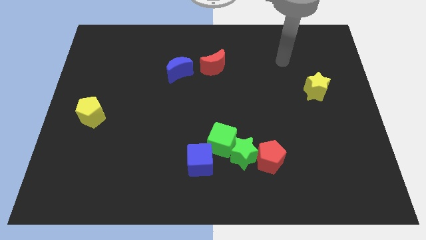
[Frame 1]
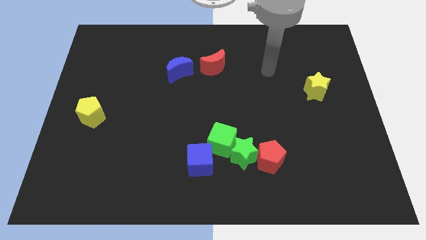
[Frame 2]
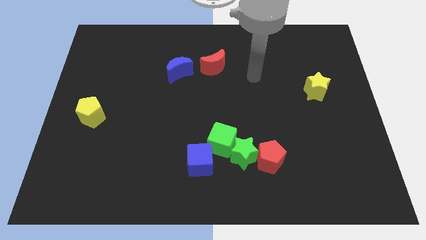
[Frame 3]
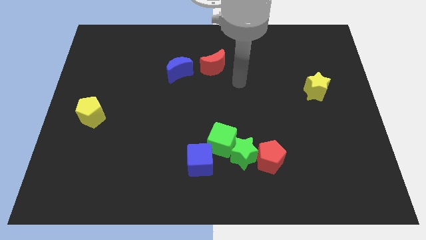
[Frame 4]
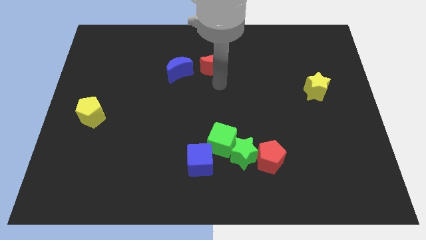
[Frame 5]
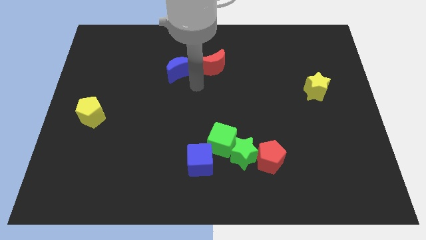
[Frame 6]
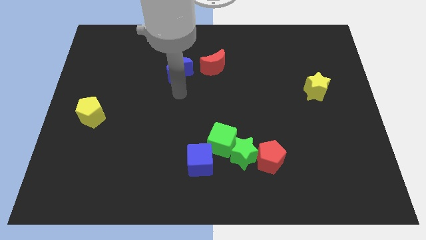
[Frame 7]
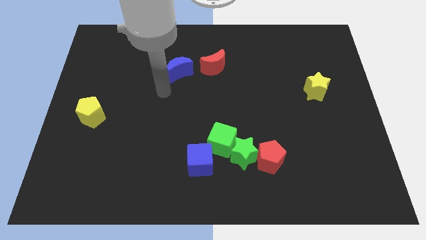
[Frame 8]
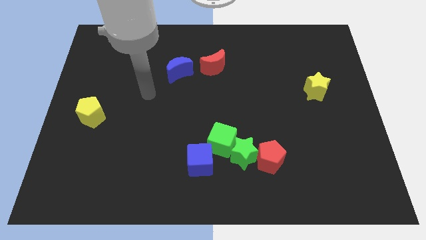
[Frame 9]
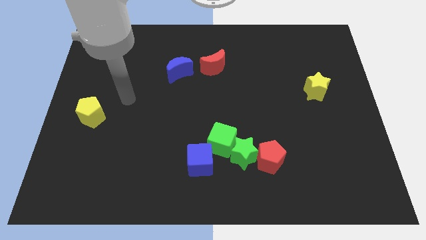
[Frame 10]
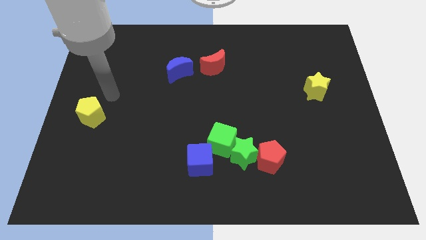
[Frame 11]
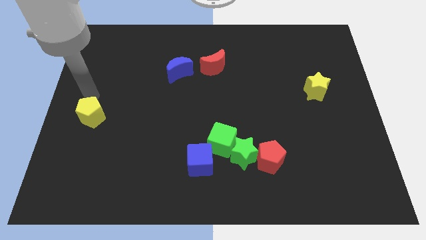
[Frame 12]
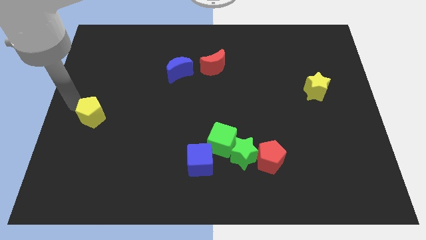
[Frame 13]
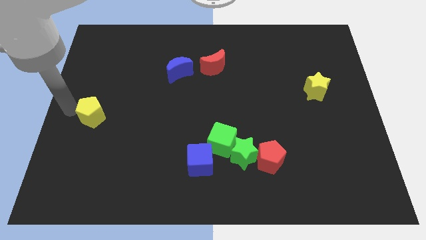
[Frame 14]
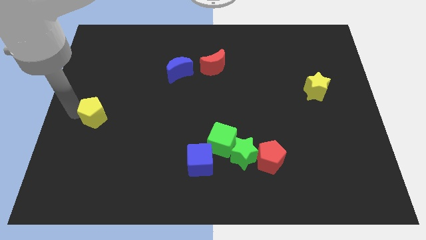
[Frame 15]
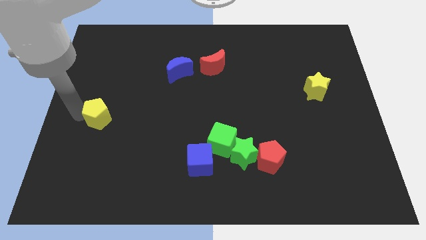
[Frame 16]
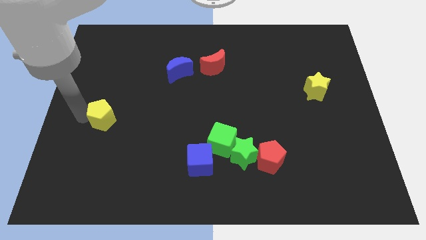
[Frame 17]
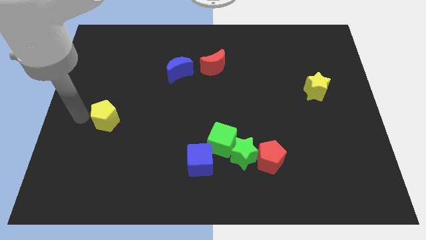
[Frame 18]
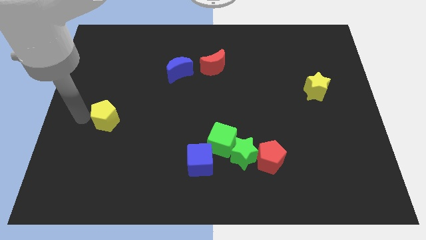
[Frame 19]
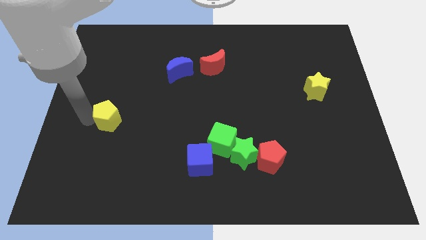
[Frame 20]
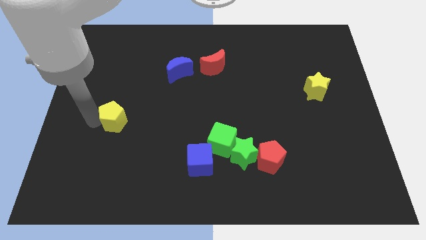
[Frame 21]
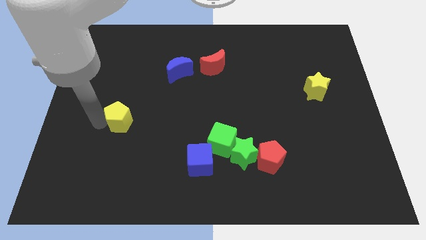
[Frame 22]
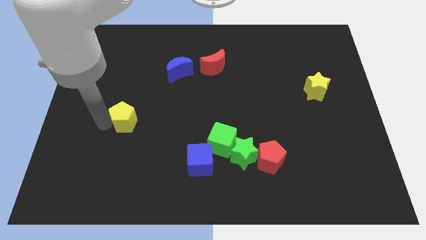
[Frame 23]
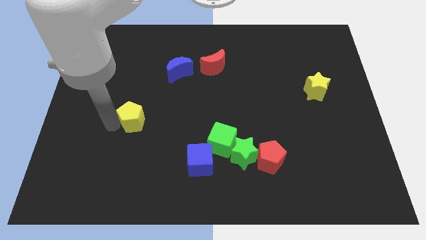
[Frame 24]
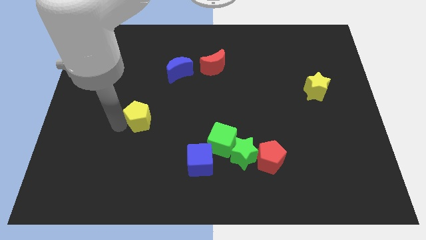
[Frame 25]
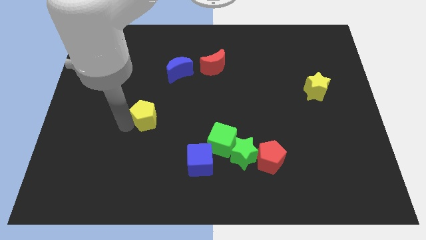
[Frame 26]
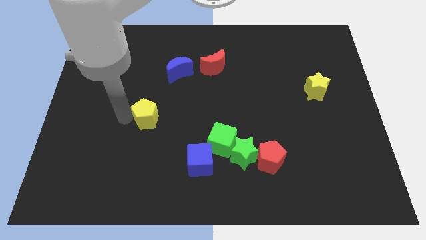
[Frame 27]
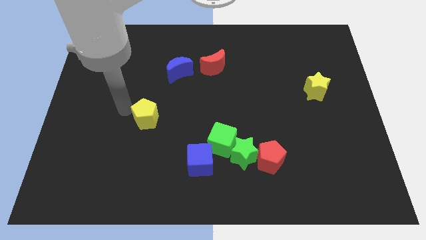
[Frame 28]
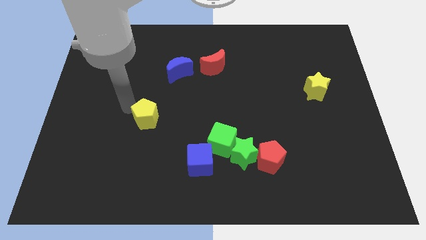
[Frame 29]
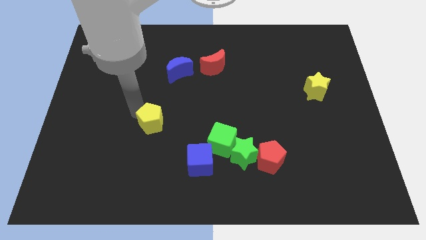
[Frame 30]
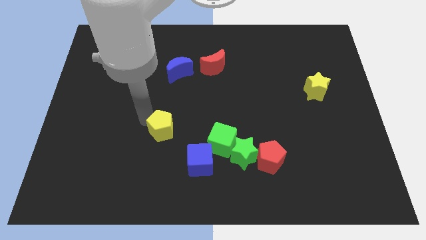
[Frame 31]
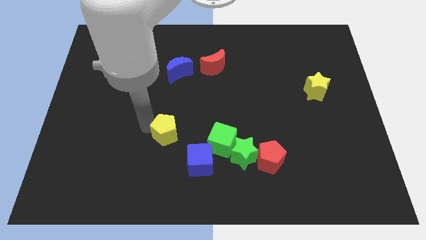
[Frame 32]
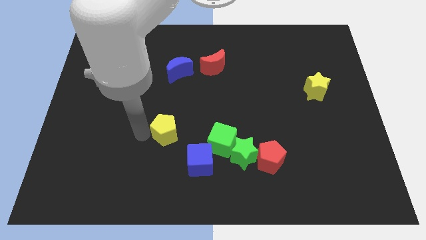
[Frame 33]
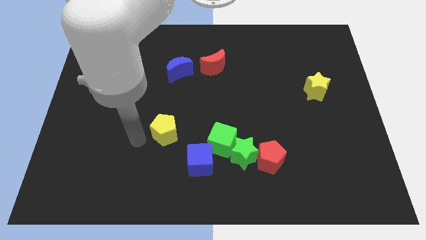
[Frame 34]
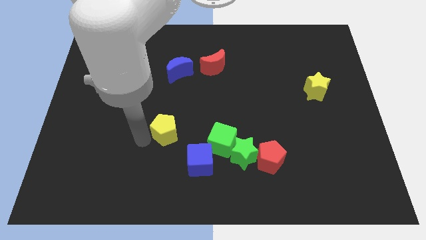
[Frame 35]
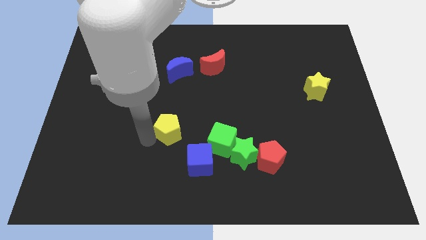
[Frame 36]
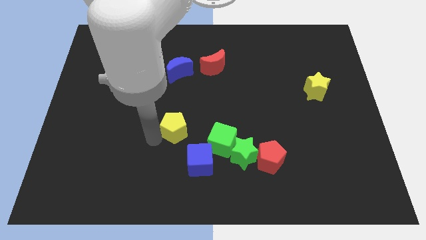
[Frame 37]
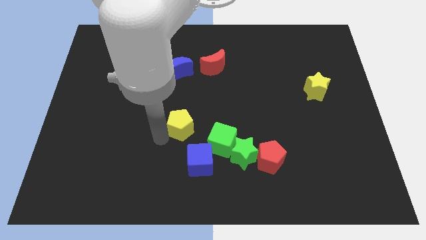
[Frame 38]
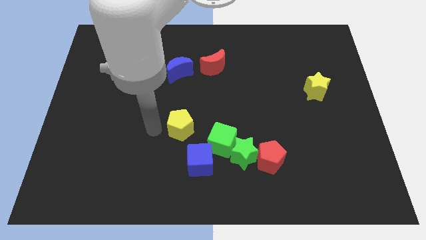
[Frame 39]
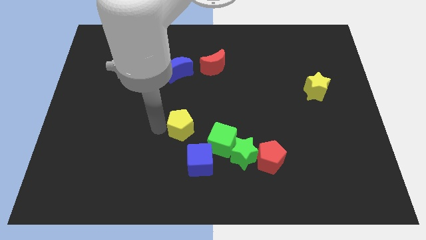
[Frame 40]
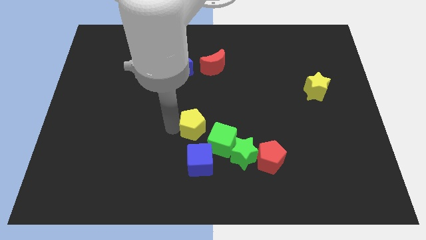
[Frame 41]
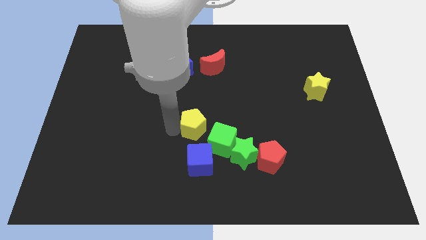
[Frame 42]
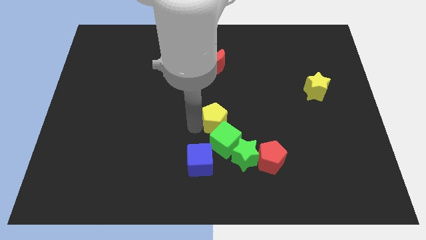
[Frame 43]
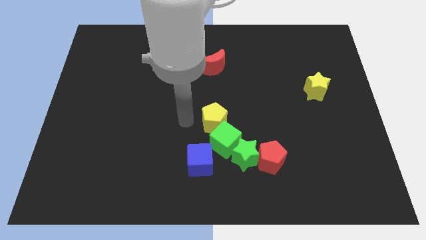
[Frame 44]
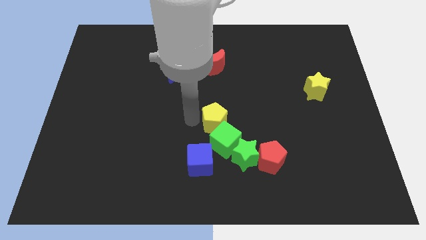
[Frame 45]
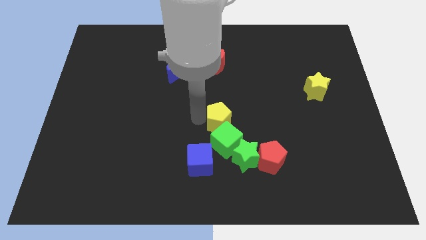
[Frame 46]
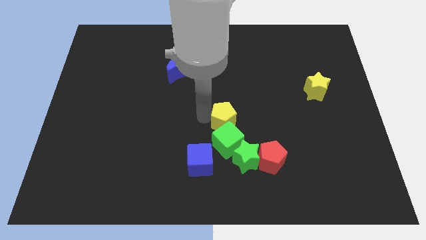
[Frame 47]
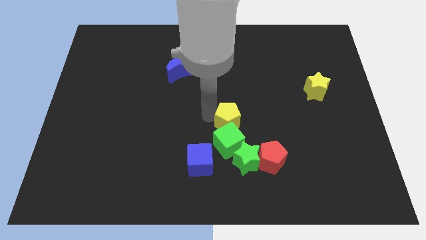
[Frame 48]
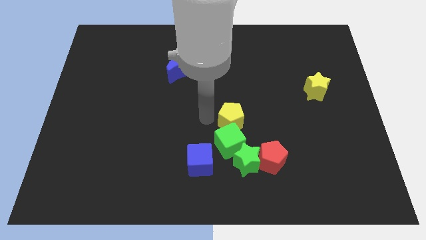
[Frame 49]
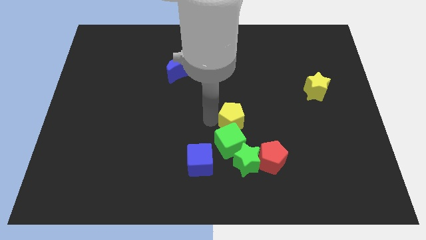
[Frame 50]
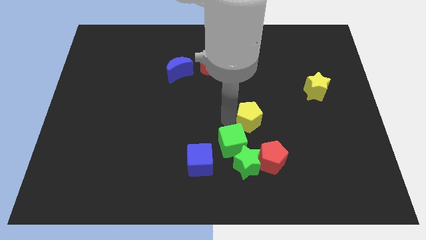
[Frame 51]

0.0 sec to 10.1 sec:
move the yellow pentagon above the red pentagon

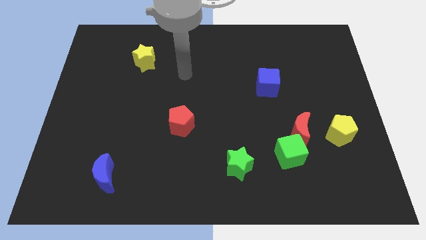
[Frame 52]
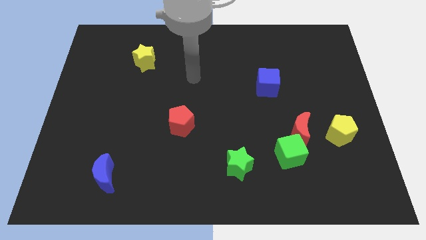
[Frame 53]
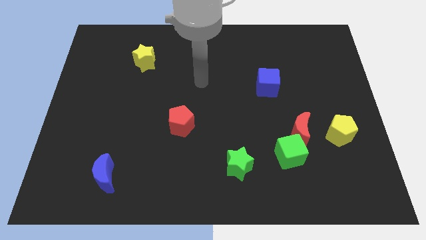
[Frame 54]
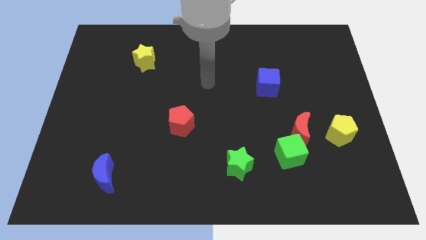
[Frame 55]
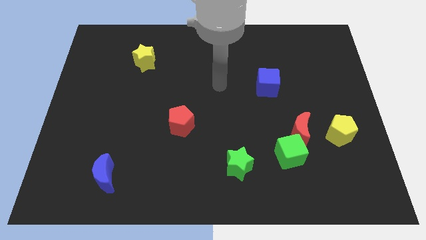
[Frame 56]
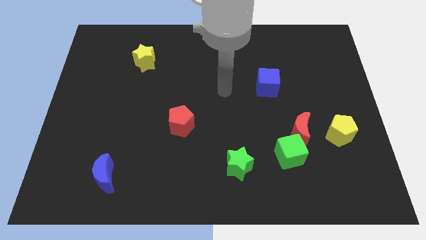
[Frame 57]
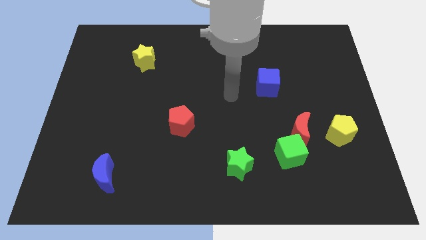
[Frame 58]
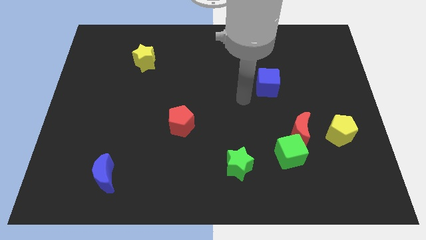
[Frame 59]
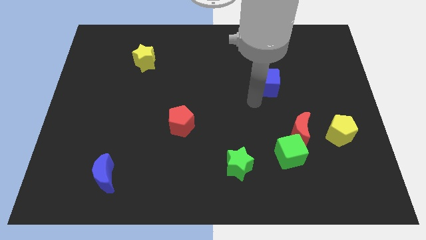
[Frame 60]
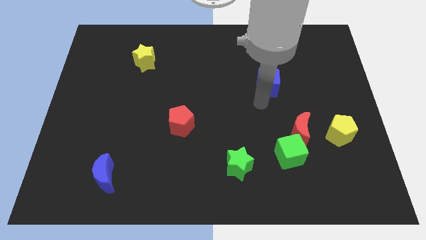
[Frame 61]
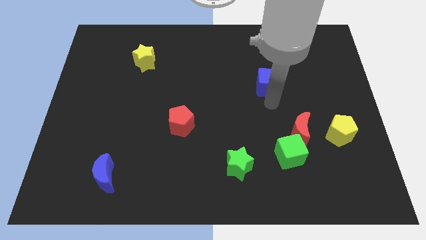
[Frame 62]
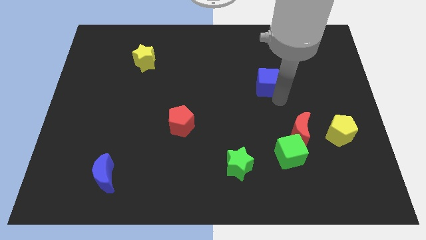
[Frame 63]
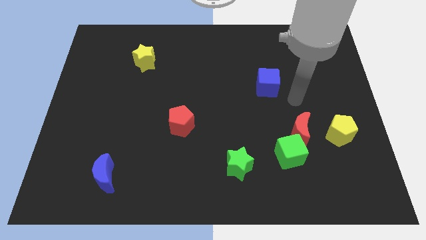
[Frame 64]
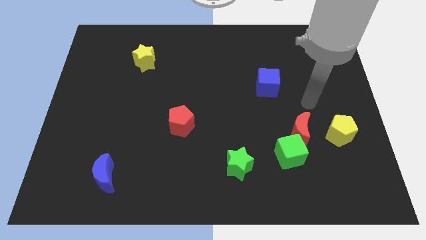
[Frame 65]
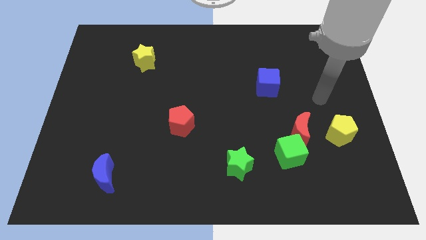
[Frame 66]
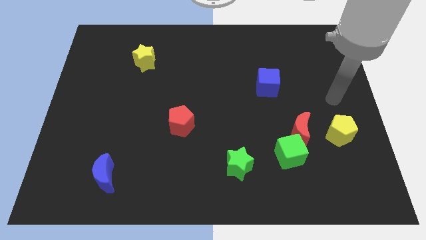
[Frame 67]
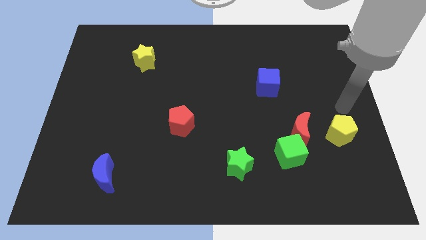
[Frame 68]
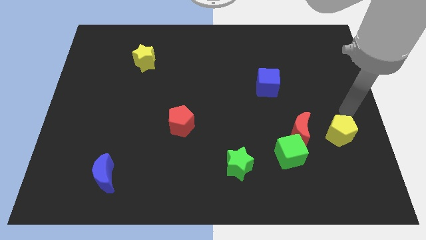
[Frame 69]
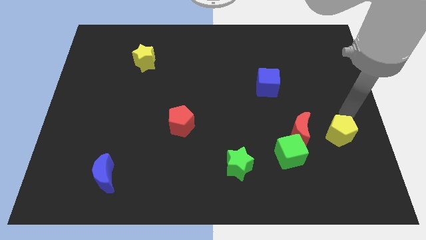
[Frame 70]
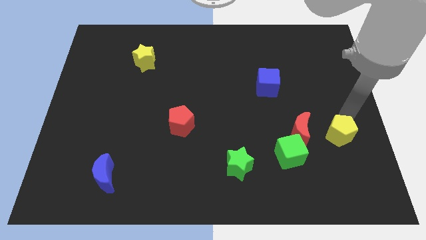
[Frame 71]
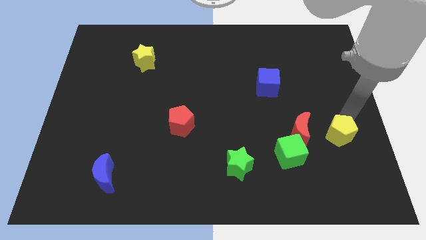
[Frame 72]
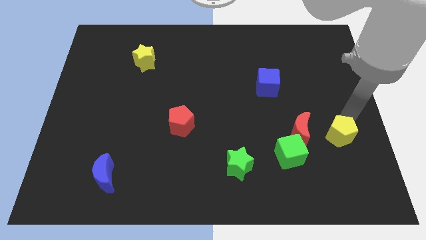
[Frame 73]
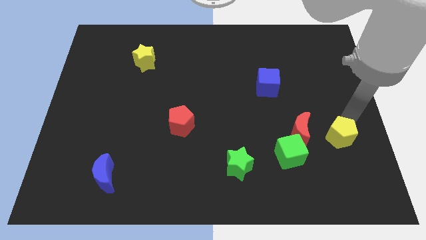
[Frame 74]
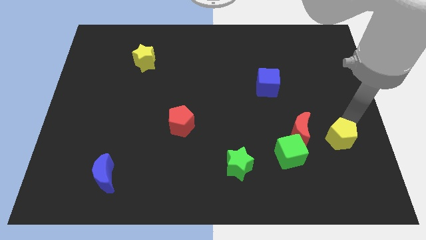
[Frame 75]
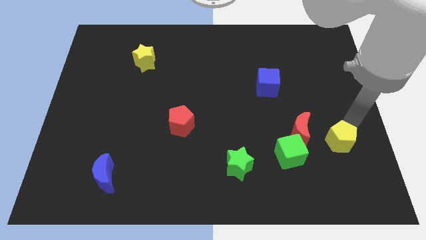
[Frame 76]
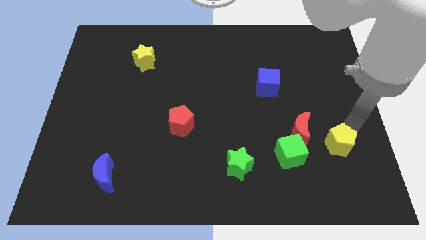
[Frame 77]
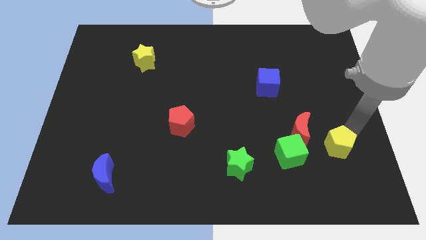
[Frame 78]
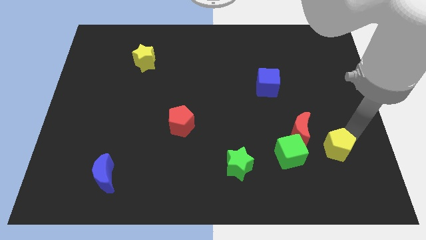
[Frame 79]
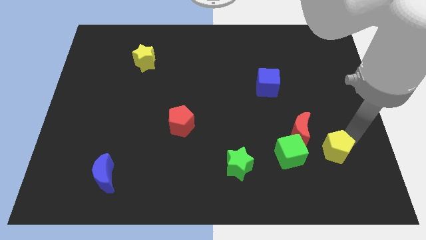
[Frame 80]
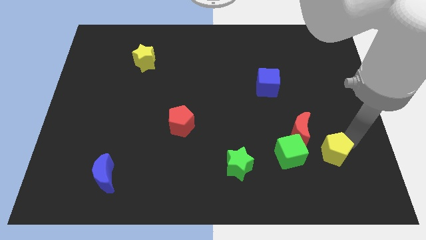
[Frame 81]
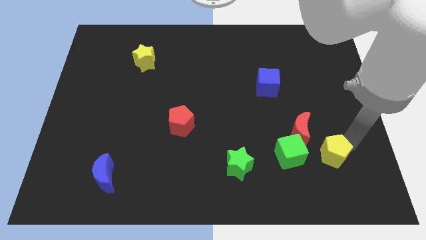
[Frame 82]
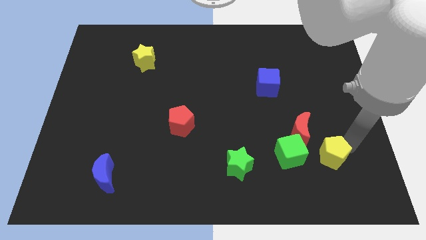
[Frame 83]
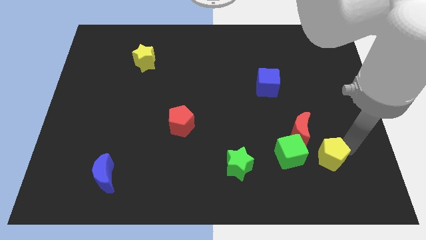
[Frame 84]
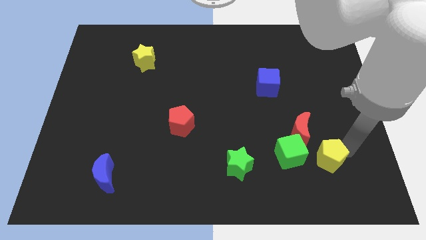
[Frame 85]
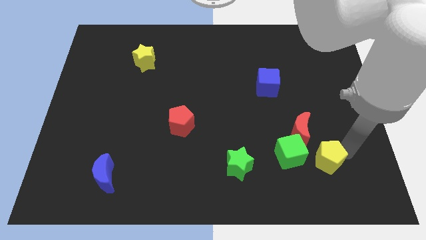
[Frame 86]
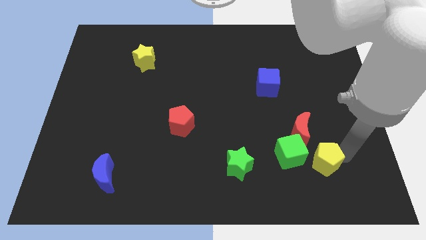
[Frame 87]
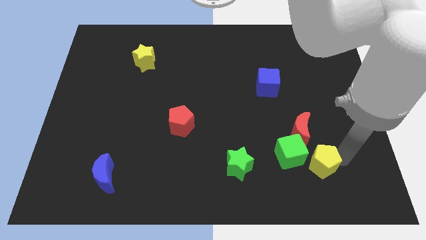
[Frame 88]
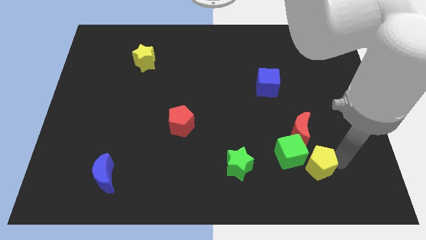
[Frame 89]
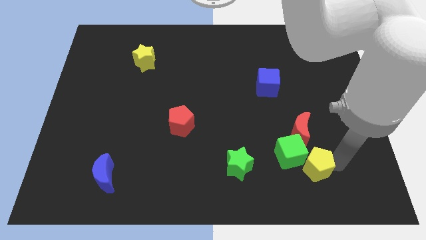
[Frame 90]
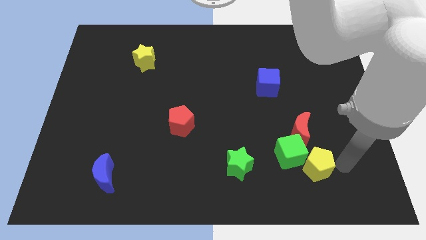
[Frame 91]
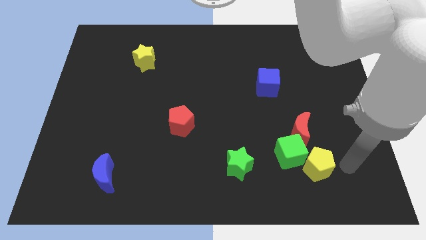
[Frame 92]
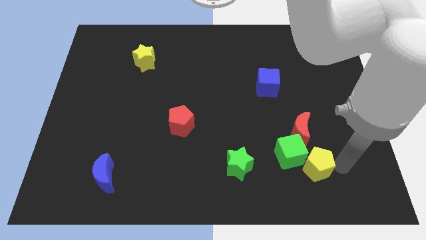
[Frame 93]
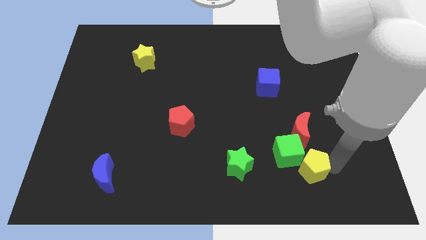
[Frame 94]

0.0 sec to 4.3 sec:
move the yellow pentagon just right of the green star
